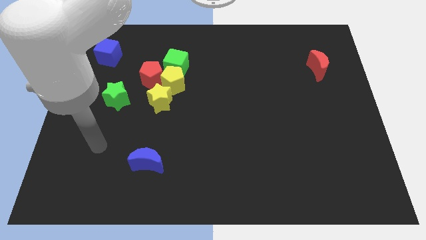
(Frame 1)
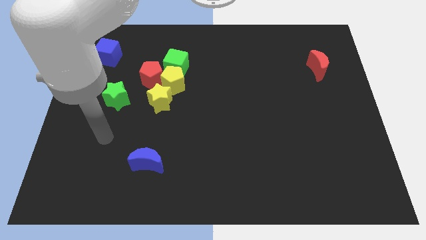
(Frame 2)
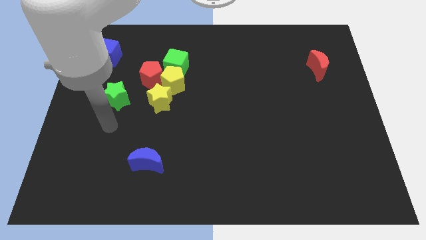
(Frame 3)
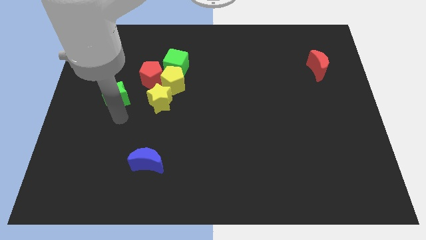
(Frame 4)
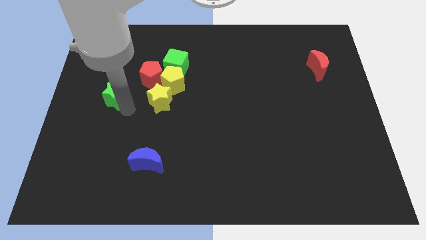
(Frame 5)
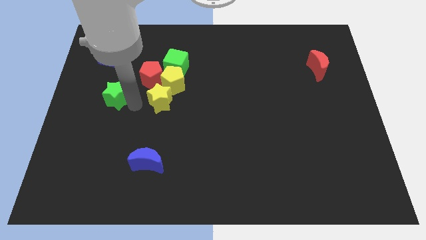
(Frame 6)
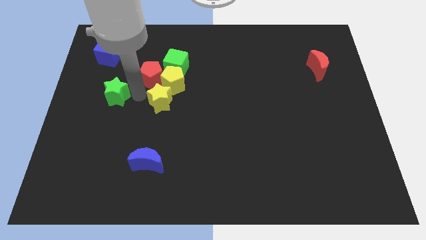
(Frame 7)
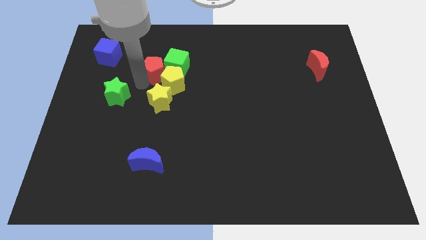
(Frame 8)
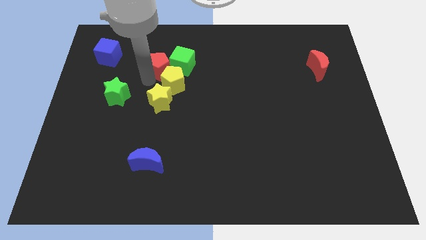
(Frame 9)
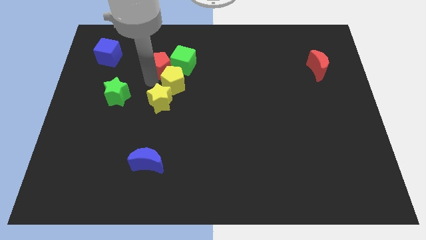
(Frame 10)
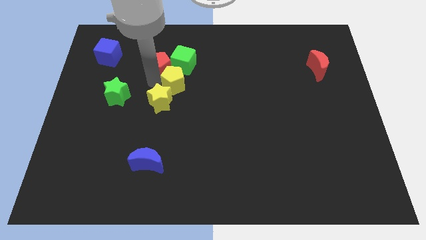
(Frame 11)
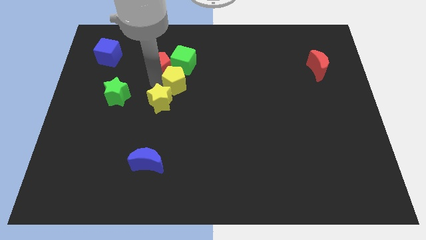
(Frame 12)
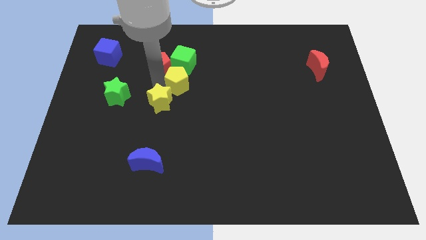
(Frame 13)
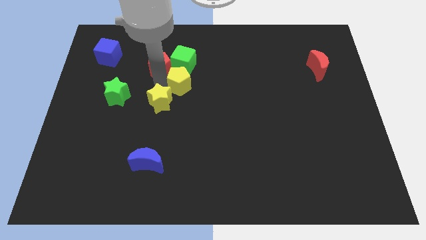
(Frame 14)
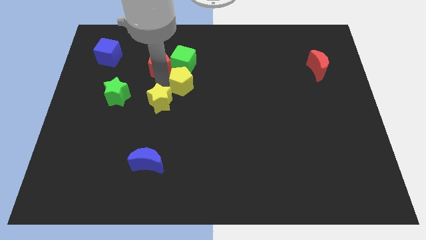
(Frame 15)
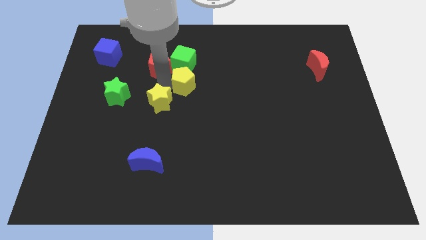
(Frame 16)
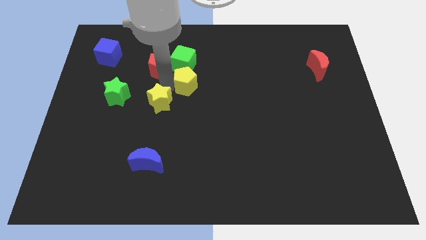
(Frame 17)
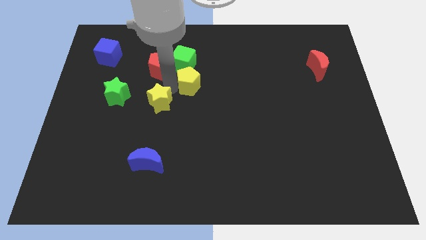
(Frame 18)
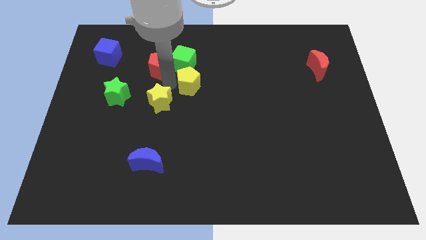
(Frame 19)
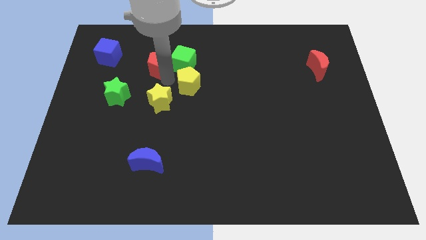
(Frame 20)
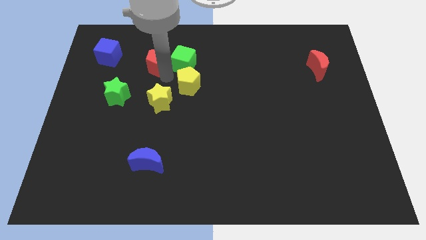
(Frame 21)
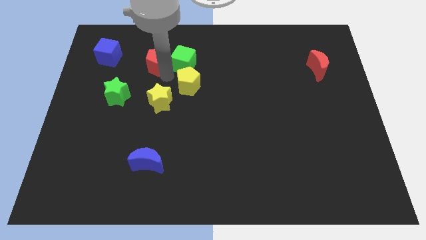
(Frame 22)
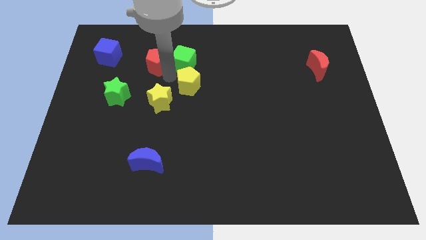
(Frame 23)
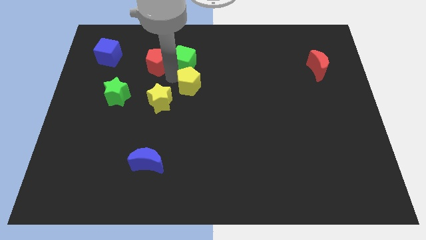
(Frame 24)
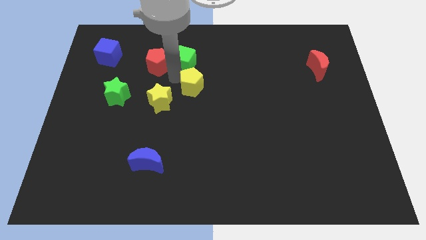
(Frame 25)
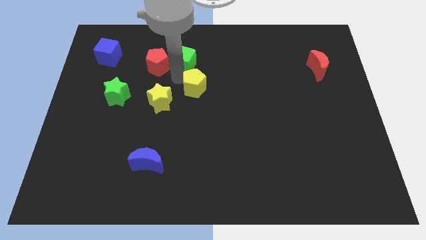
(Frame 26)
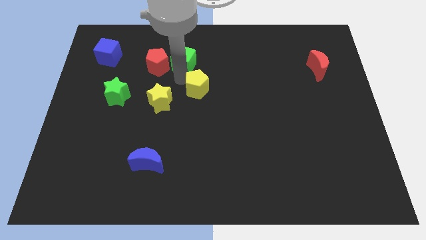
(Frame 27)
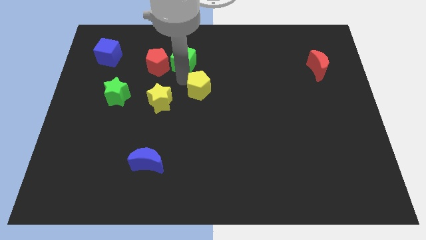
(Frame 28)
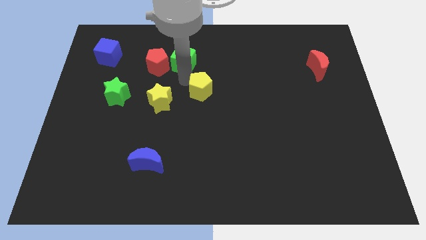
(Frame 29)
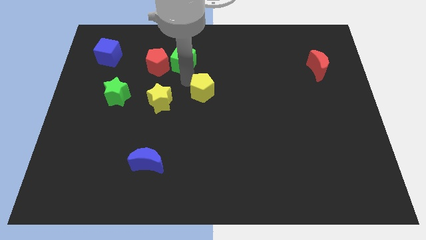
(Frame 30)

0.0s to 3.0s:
pull the yellow pentagon apart from the red pentagon, green cube, and yellow star

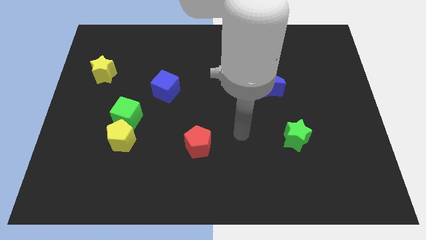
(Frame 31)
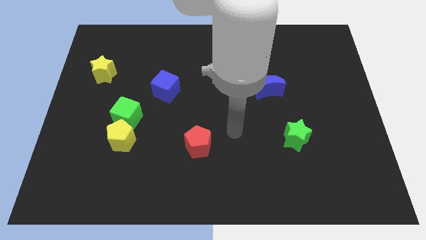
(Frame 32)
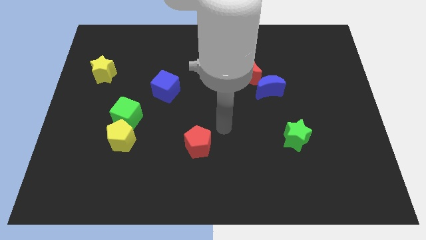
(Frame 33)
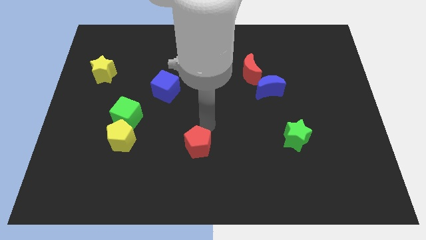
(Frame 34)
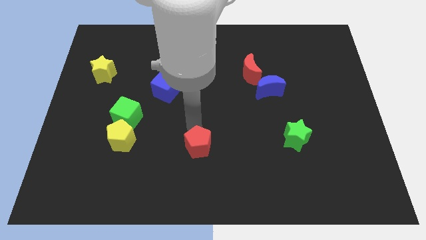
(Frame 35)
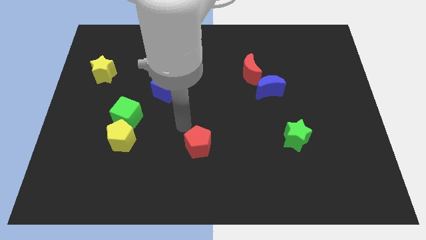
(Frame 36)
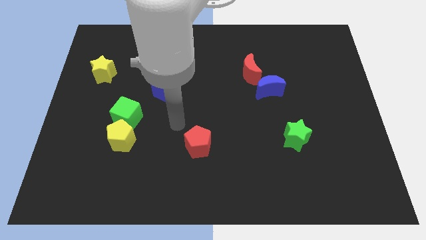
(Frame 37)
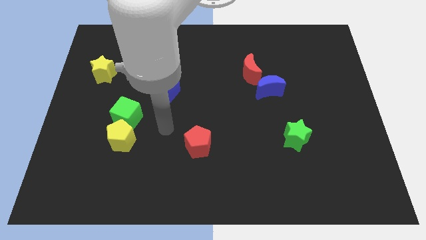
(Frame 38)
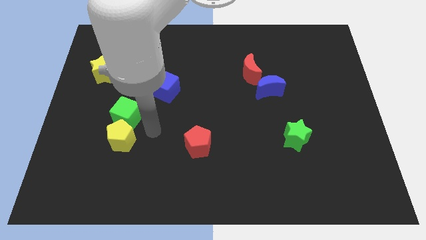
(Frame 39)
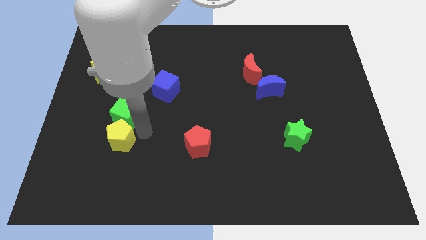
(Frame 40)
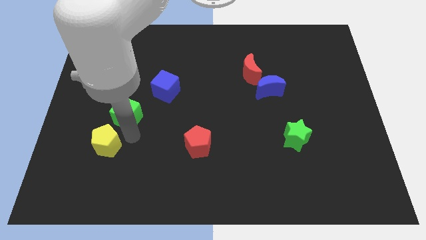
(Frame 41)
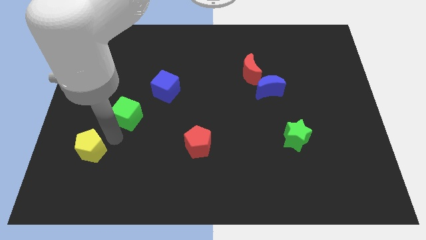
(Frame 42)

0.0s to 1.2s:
pull the green cube apart from the yellow pentagon

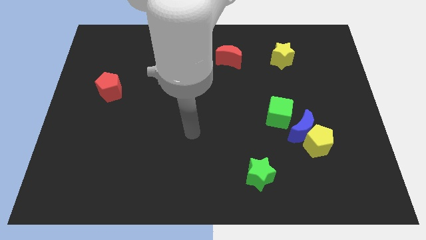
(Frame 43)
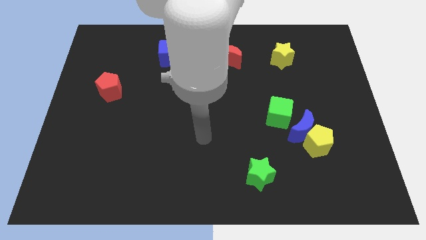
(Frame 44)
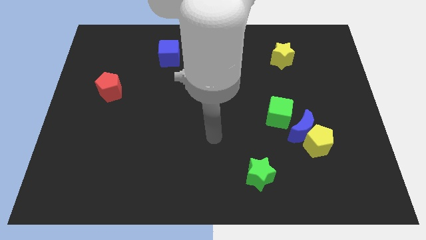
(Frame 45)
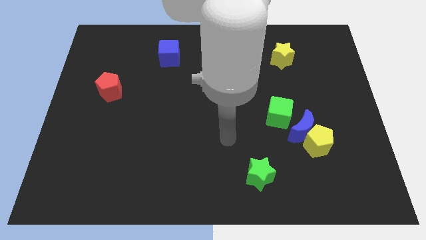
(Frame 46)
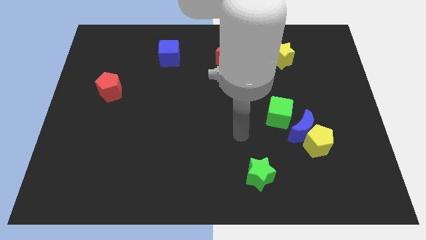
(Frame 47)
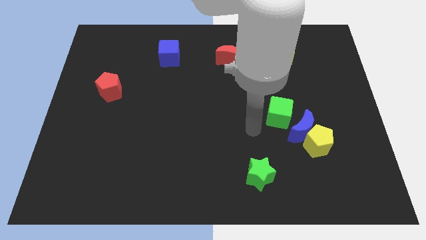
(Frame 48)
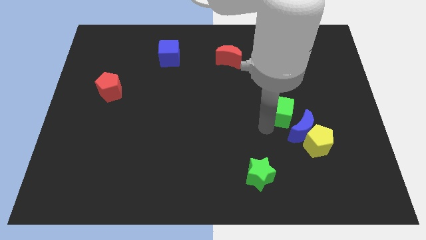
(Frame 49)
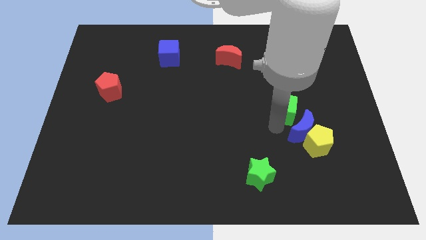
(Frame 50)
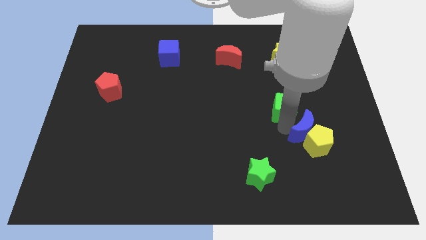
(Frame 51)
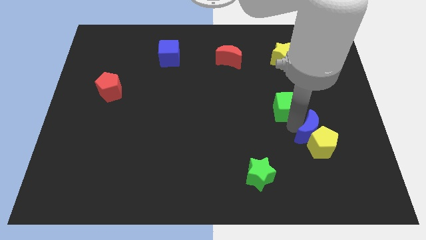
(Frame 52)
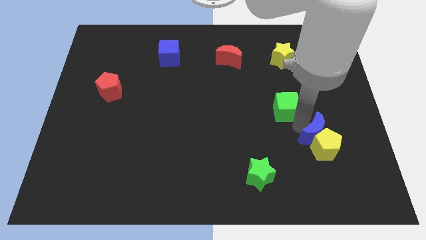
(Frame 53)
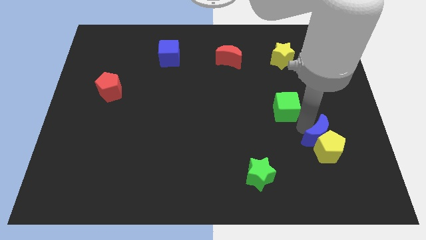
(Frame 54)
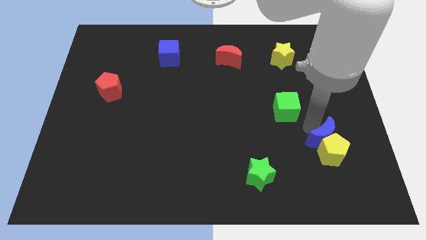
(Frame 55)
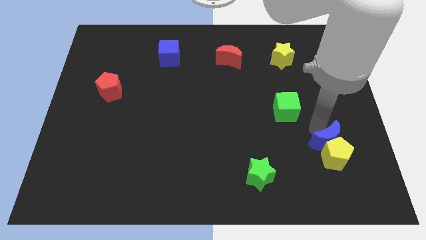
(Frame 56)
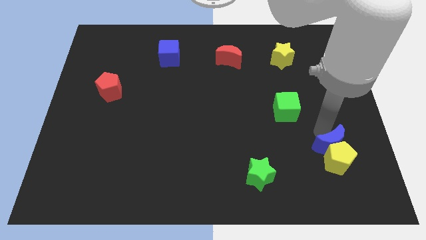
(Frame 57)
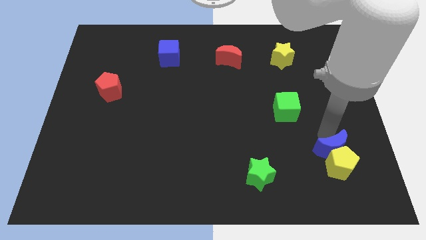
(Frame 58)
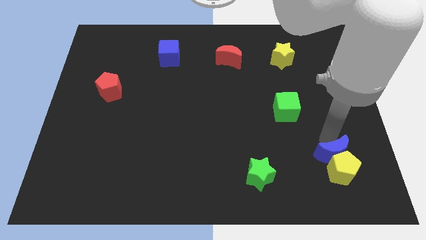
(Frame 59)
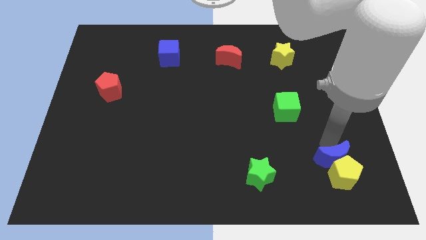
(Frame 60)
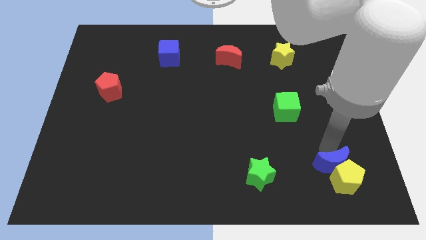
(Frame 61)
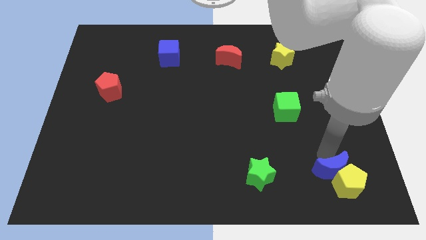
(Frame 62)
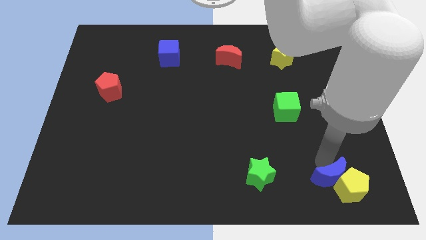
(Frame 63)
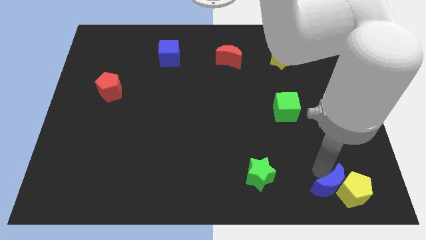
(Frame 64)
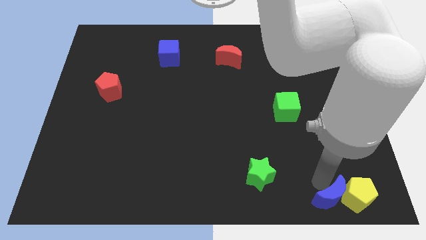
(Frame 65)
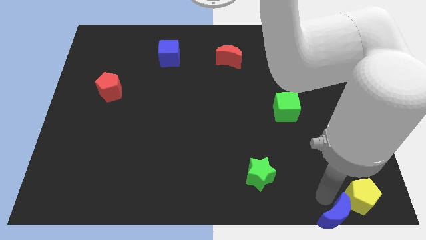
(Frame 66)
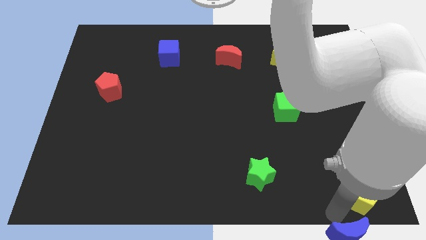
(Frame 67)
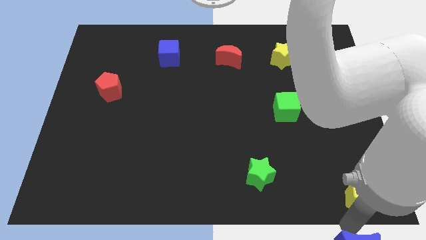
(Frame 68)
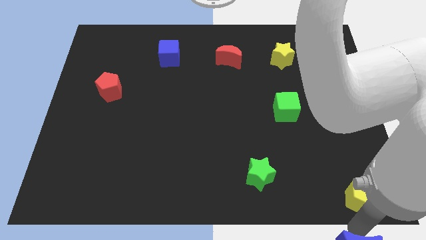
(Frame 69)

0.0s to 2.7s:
separate the yellow pentagon from the blue moon

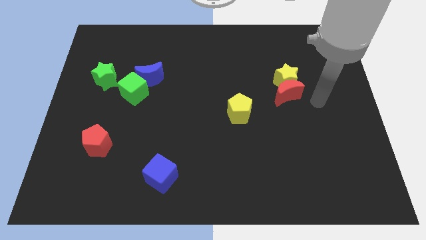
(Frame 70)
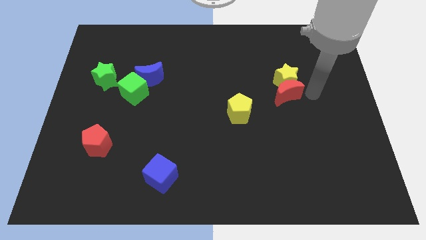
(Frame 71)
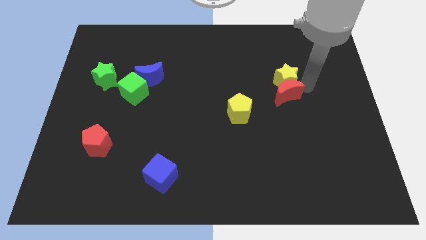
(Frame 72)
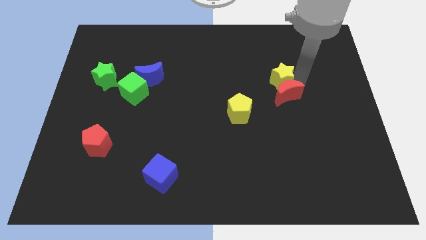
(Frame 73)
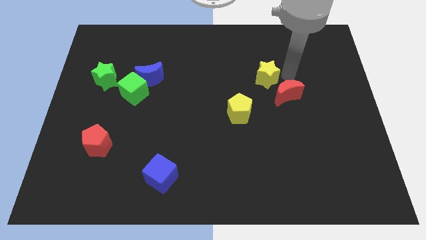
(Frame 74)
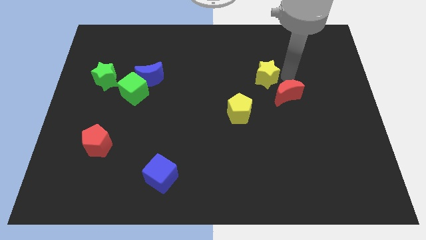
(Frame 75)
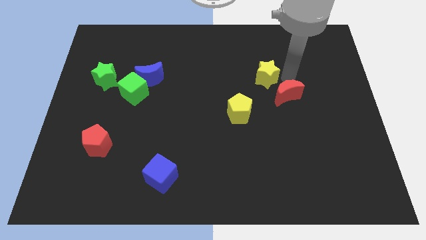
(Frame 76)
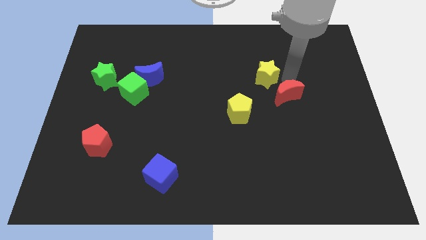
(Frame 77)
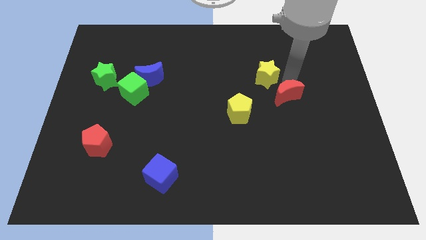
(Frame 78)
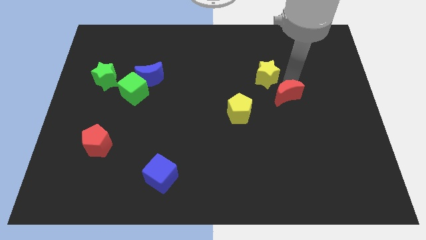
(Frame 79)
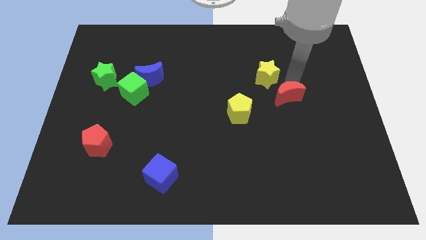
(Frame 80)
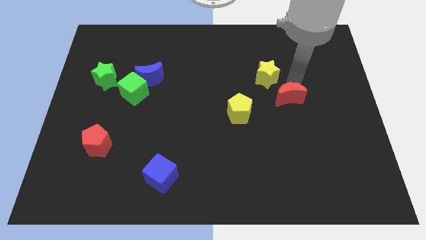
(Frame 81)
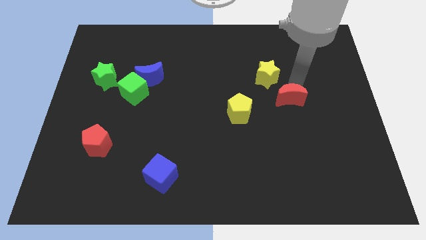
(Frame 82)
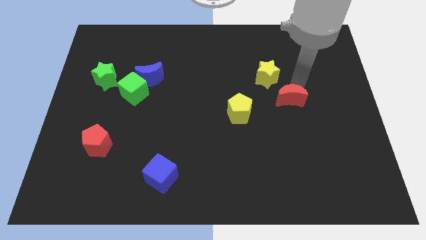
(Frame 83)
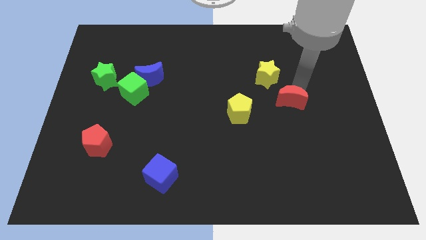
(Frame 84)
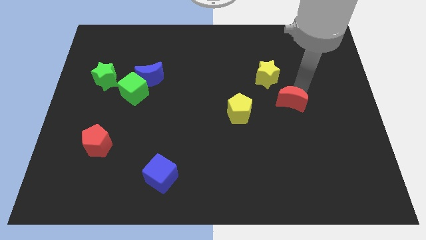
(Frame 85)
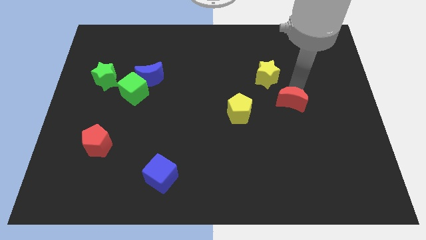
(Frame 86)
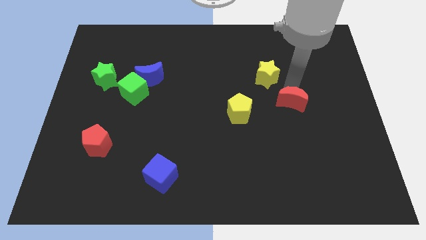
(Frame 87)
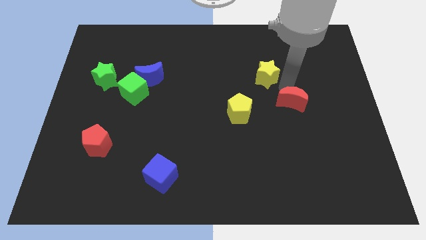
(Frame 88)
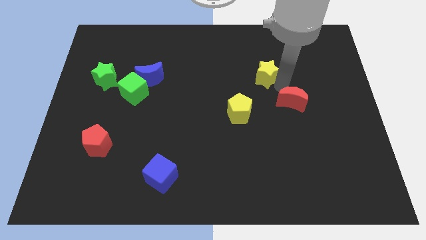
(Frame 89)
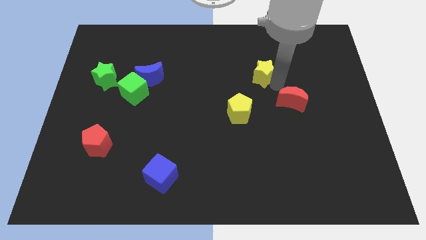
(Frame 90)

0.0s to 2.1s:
move the red moon away from the yellow star

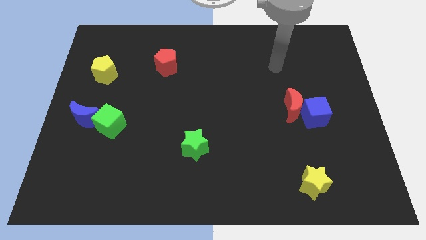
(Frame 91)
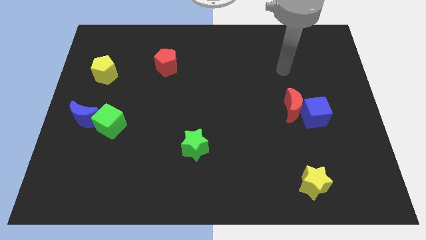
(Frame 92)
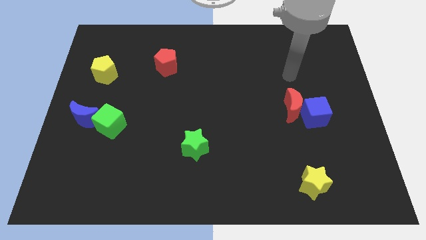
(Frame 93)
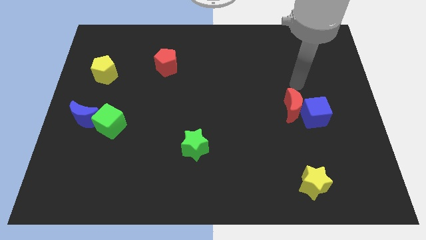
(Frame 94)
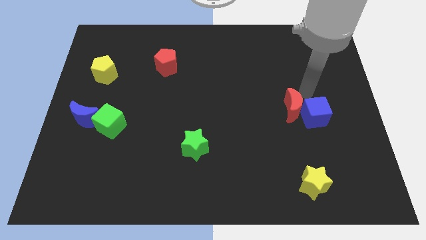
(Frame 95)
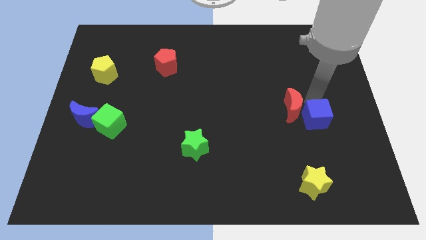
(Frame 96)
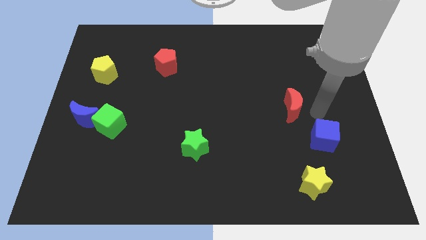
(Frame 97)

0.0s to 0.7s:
pull the red moon apart from the blue cube
